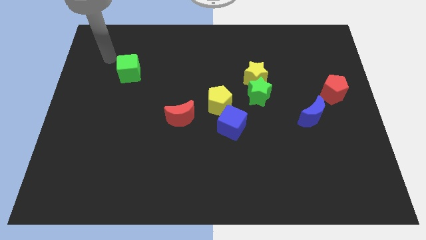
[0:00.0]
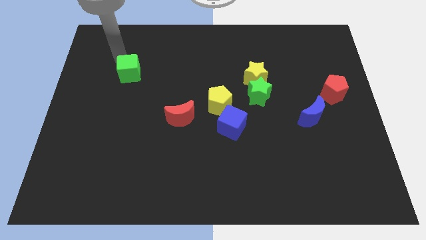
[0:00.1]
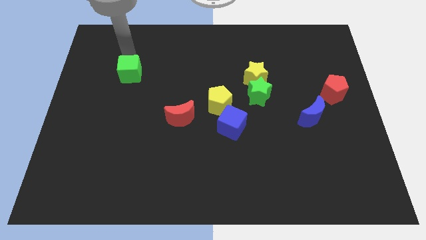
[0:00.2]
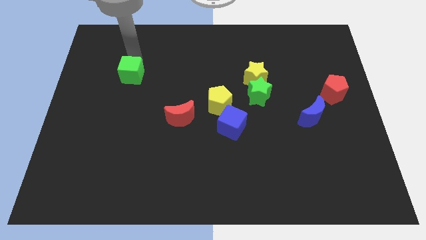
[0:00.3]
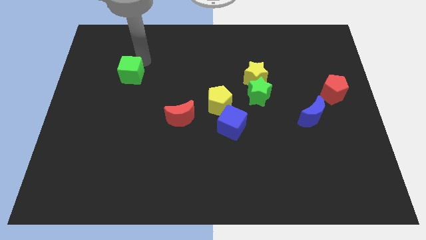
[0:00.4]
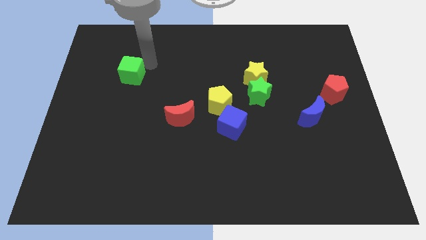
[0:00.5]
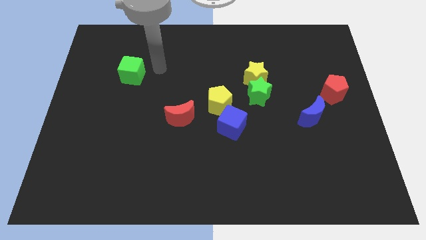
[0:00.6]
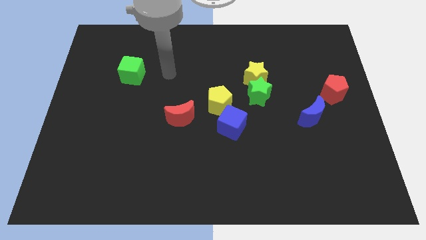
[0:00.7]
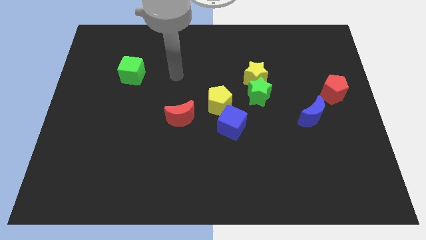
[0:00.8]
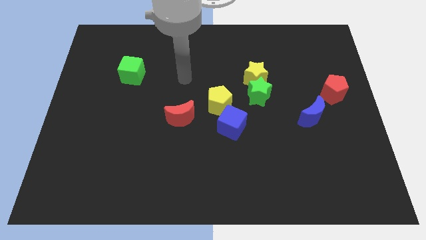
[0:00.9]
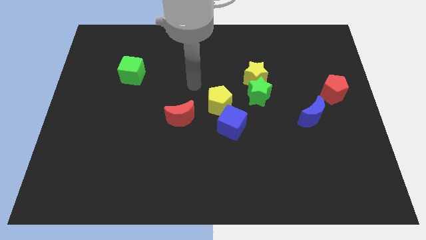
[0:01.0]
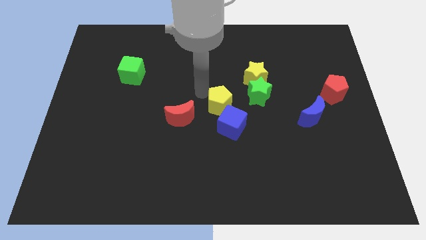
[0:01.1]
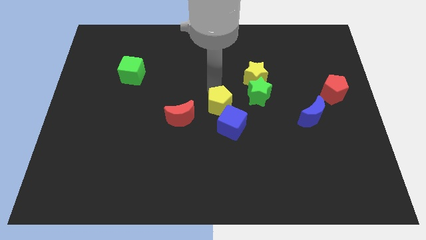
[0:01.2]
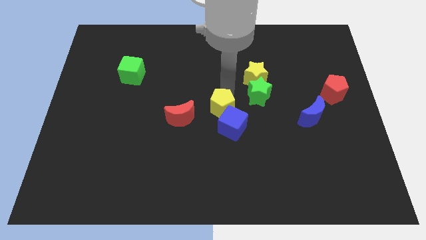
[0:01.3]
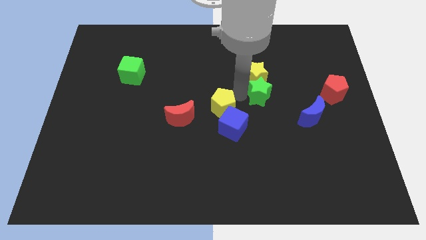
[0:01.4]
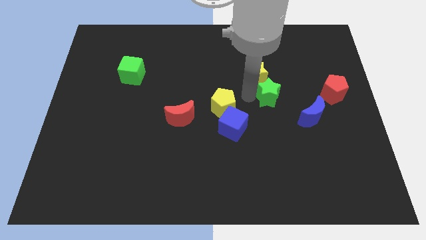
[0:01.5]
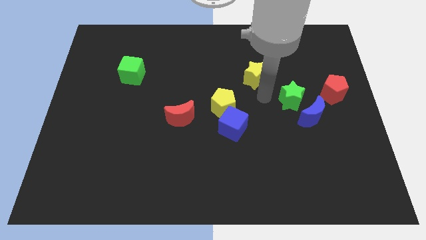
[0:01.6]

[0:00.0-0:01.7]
move the yellow star away from the green star

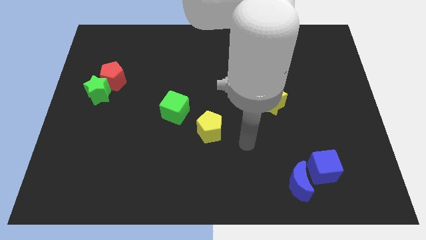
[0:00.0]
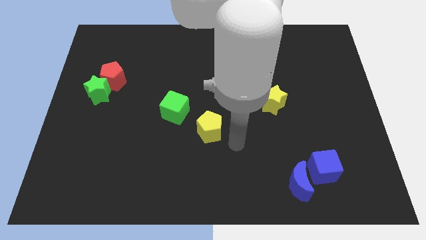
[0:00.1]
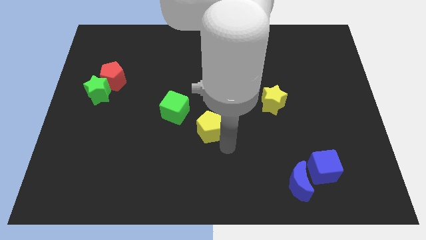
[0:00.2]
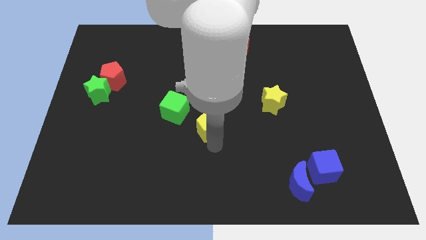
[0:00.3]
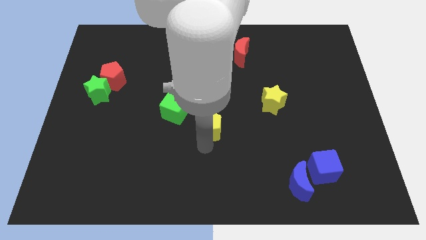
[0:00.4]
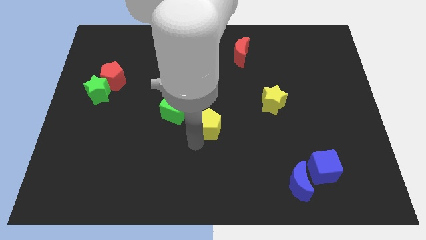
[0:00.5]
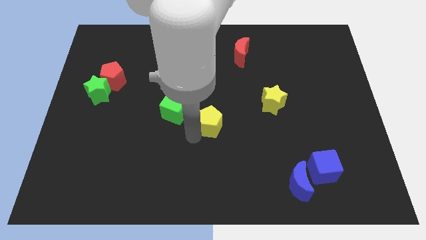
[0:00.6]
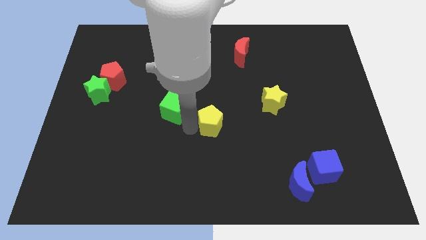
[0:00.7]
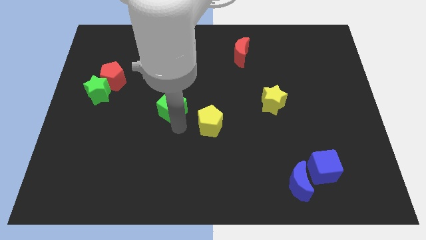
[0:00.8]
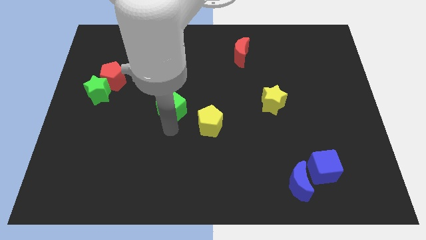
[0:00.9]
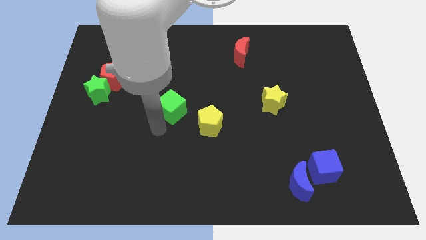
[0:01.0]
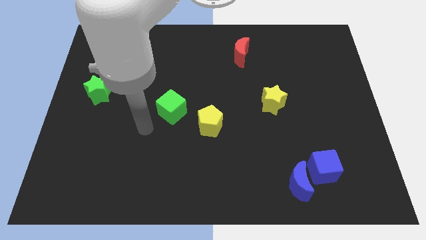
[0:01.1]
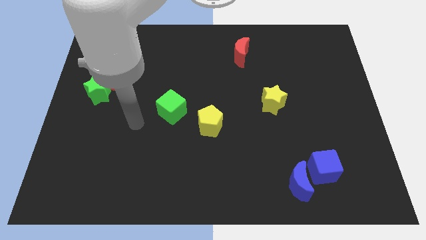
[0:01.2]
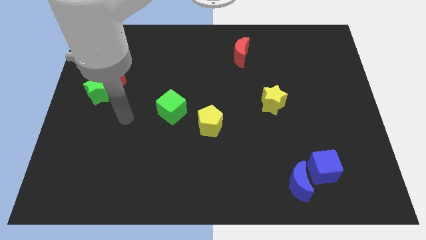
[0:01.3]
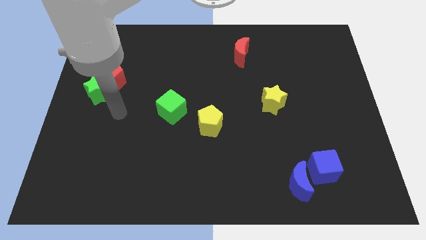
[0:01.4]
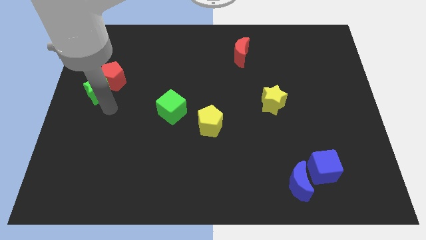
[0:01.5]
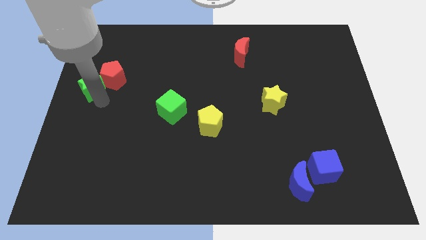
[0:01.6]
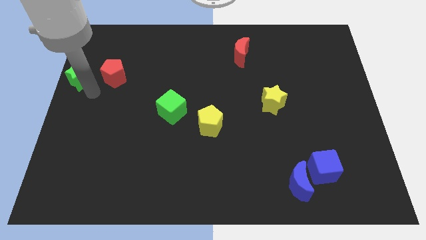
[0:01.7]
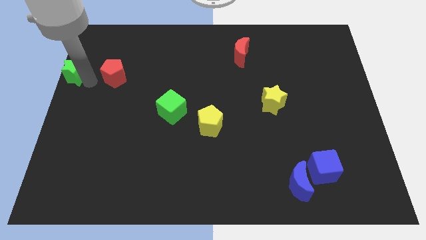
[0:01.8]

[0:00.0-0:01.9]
pull the red pentagon apart from the green star

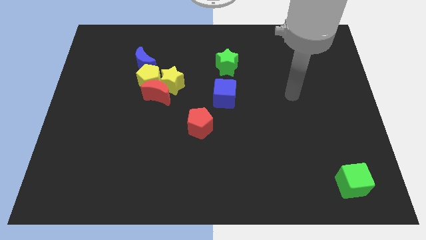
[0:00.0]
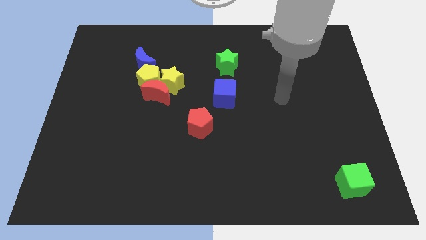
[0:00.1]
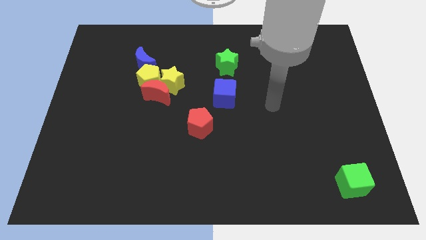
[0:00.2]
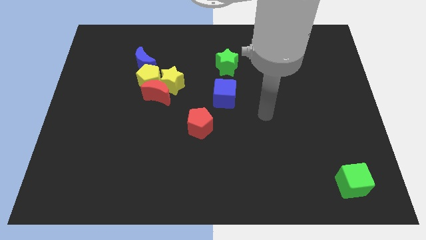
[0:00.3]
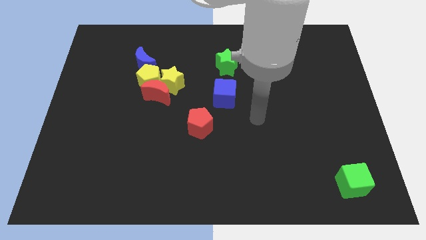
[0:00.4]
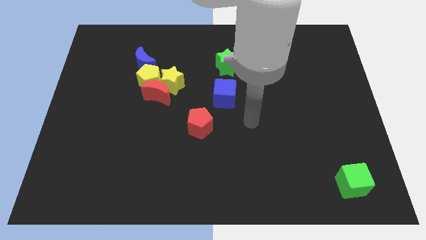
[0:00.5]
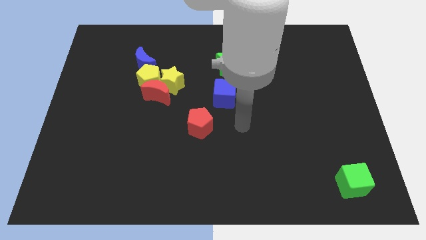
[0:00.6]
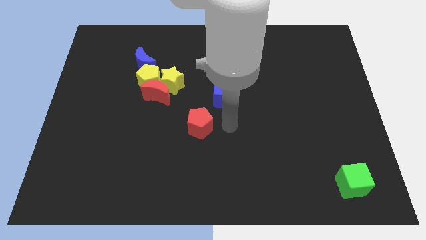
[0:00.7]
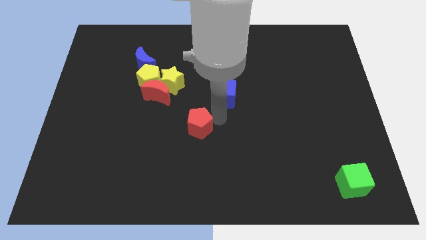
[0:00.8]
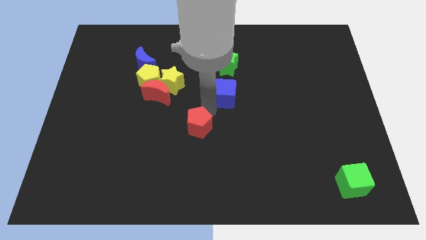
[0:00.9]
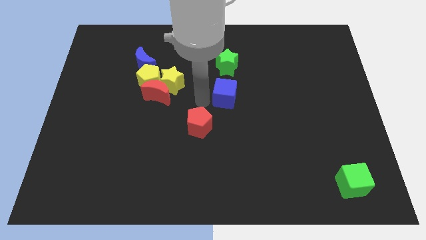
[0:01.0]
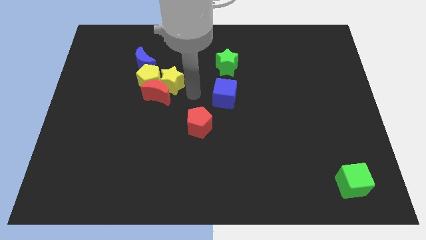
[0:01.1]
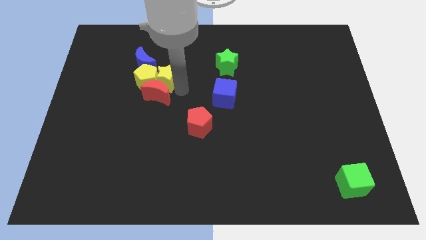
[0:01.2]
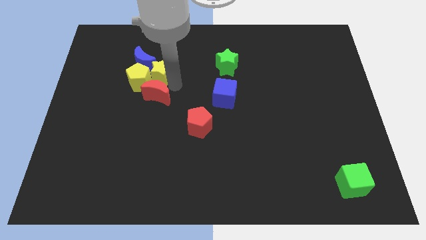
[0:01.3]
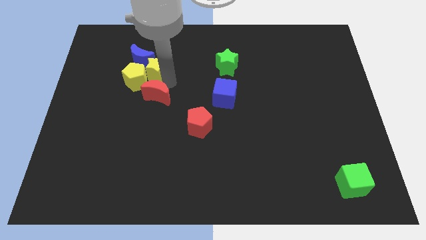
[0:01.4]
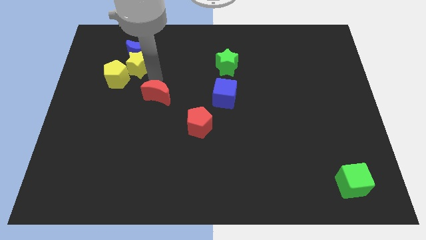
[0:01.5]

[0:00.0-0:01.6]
pull the red moon apart from the yellow pentagon and yellow star

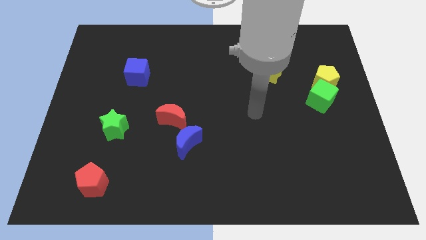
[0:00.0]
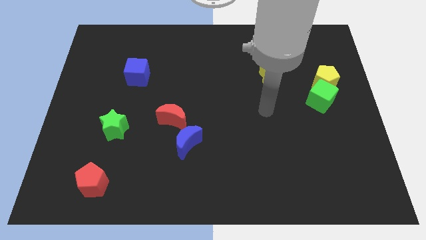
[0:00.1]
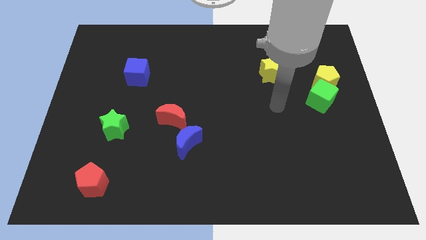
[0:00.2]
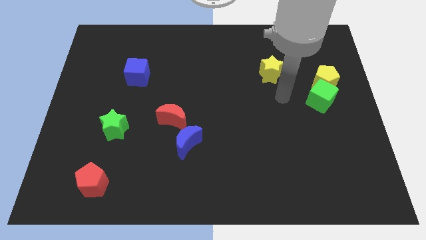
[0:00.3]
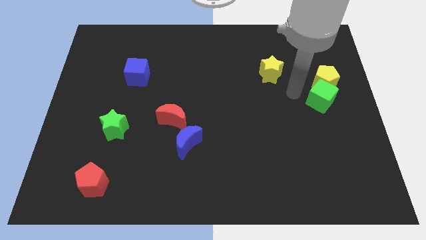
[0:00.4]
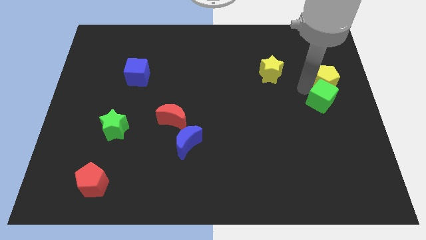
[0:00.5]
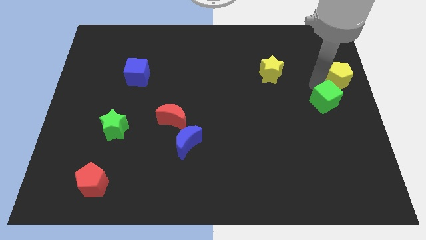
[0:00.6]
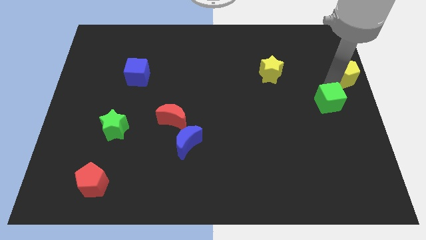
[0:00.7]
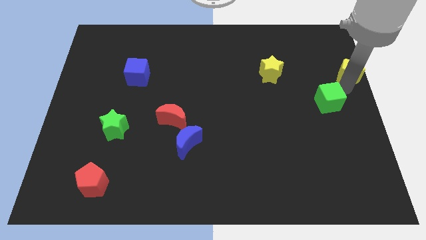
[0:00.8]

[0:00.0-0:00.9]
move the green cube away from the yellow pentagon

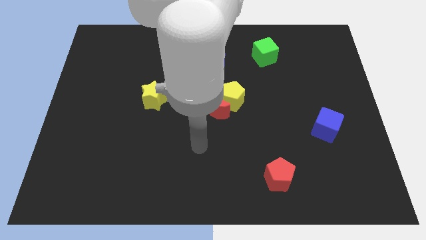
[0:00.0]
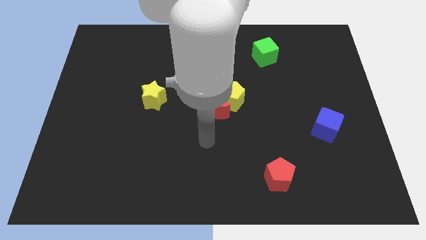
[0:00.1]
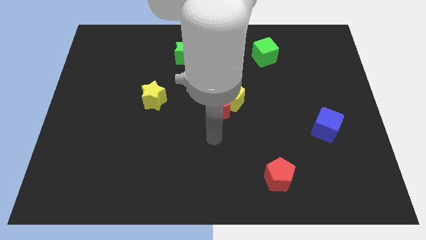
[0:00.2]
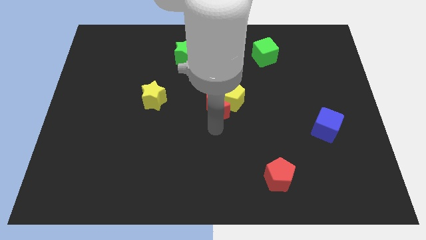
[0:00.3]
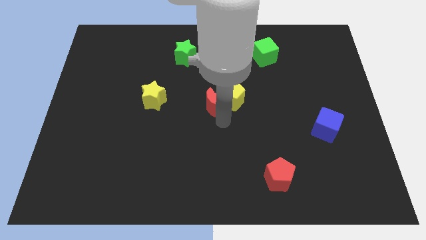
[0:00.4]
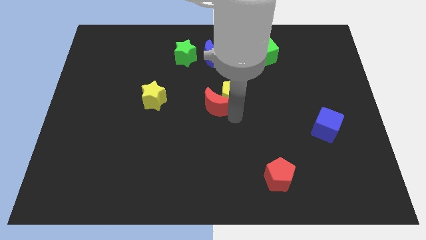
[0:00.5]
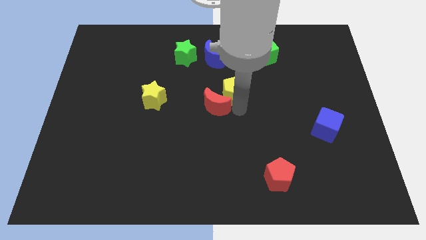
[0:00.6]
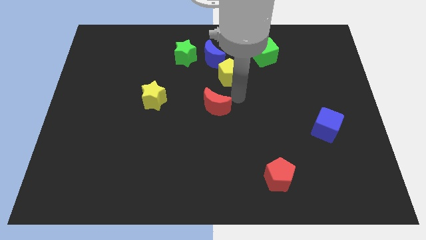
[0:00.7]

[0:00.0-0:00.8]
move the red moon away from the yellow pentagon

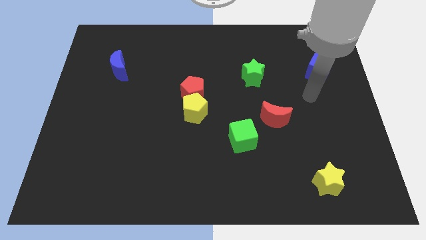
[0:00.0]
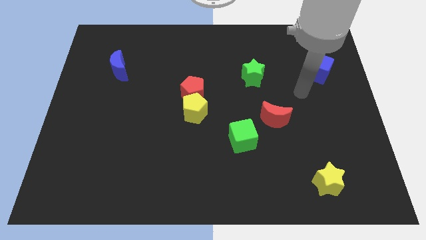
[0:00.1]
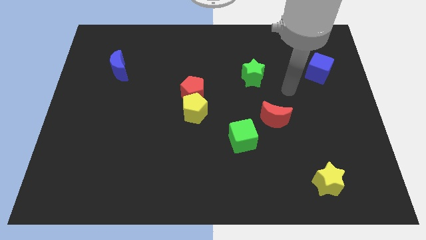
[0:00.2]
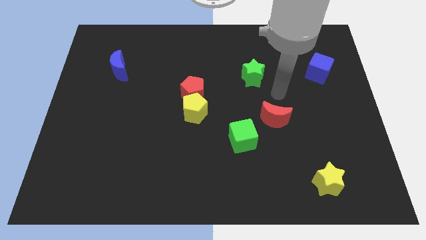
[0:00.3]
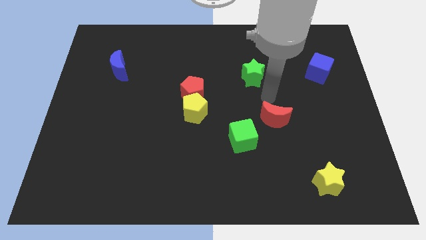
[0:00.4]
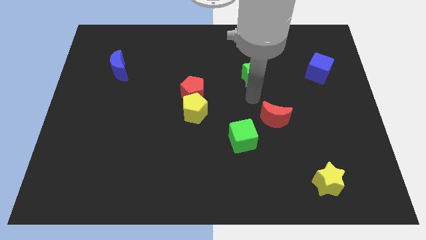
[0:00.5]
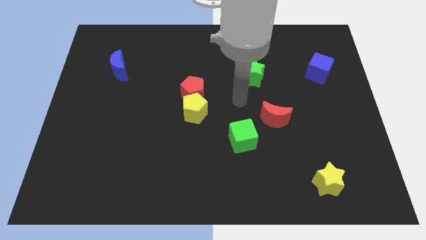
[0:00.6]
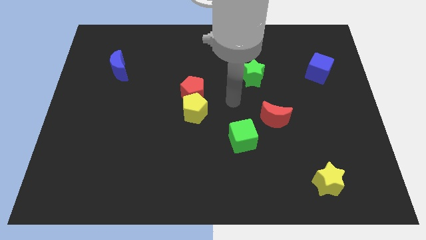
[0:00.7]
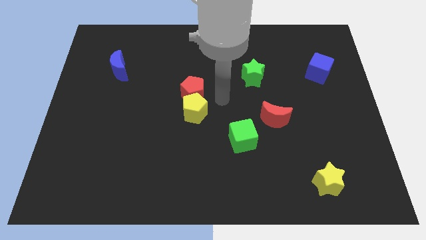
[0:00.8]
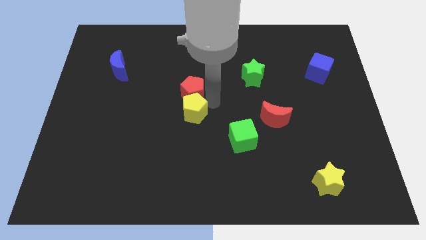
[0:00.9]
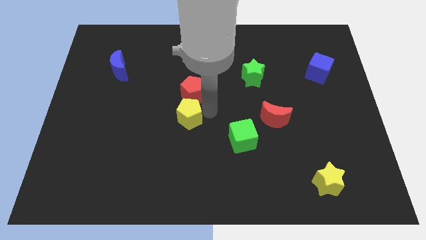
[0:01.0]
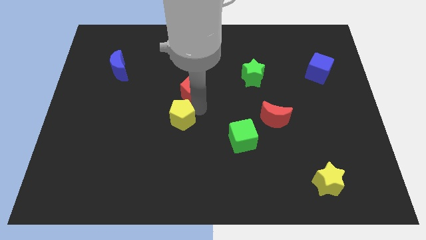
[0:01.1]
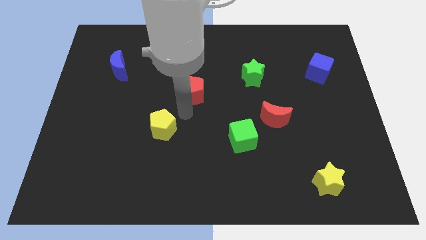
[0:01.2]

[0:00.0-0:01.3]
pull the red pentagon apart from the yellow pentagon

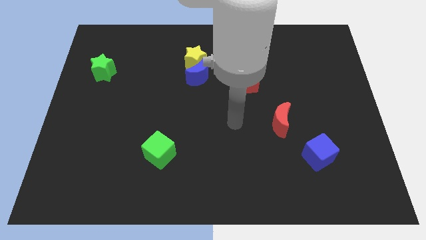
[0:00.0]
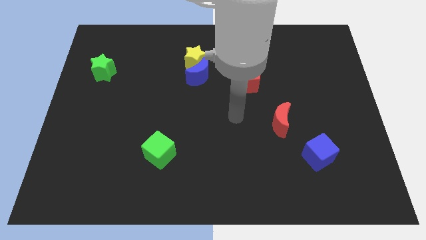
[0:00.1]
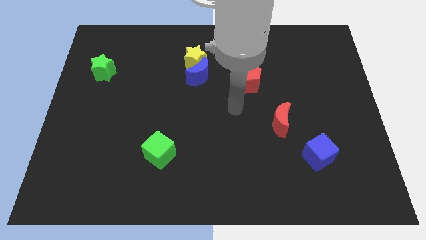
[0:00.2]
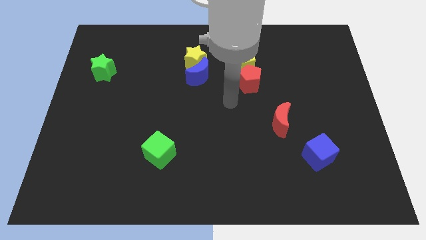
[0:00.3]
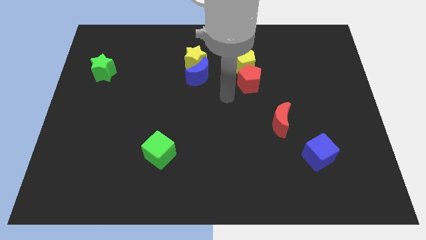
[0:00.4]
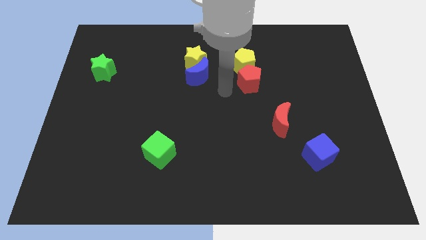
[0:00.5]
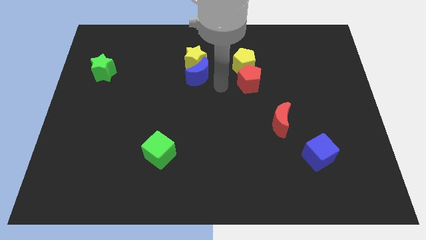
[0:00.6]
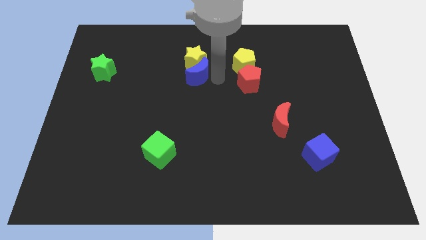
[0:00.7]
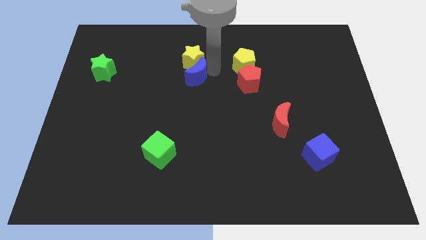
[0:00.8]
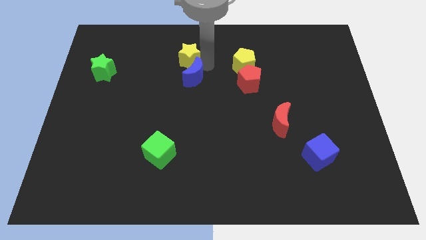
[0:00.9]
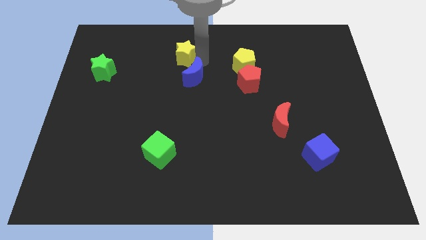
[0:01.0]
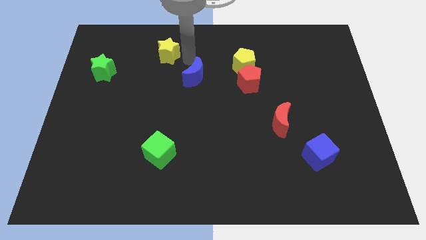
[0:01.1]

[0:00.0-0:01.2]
separate the blue moon from the yellow star
